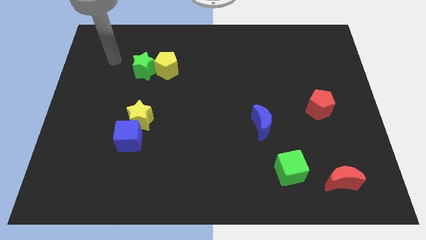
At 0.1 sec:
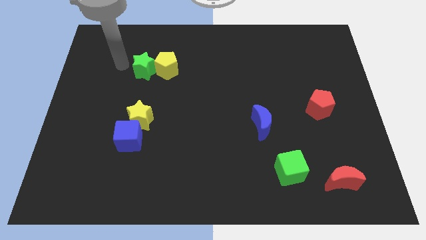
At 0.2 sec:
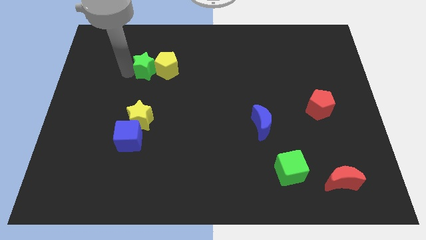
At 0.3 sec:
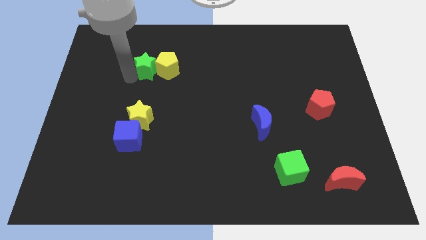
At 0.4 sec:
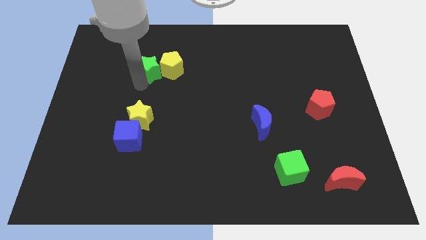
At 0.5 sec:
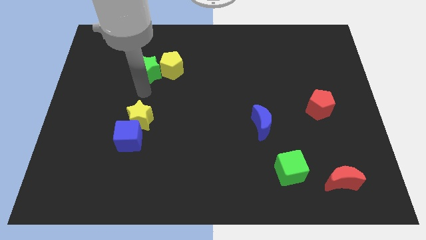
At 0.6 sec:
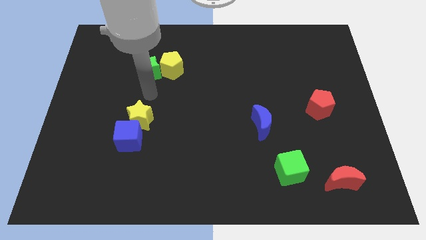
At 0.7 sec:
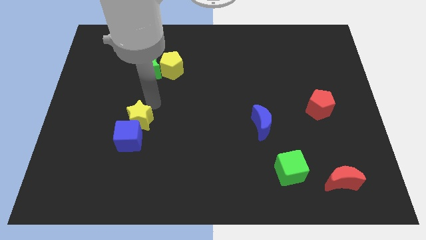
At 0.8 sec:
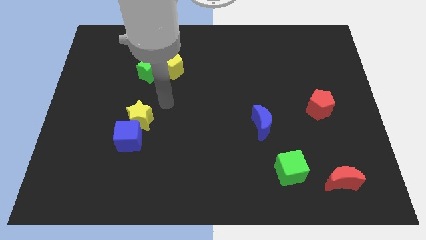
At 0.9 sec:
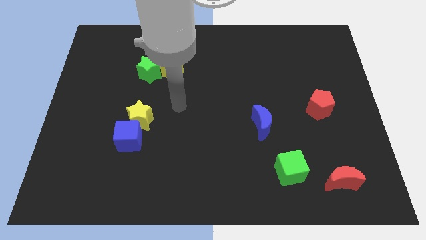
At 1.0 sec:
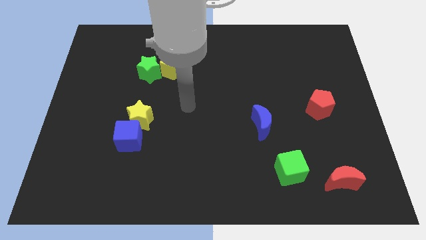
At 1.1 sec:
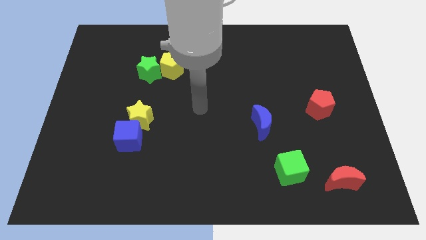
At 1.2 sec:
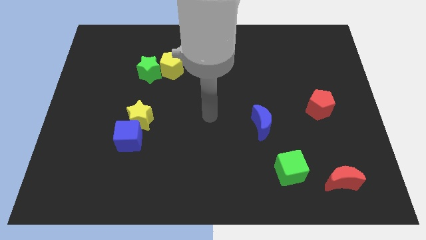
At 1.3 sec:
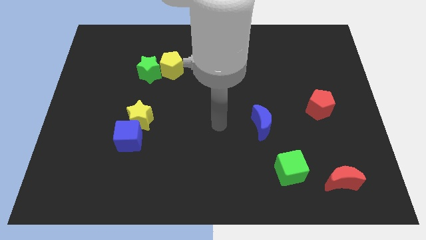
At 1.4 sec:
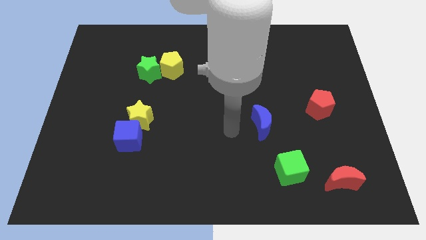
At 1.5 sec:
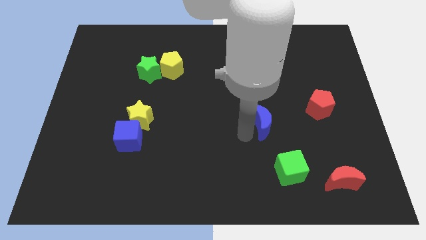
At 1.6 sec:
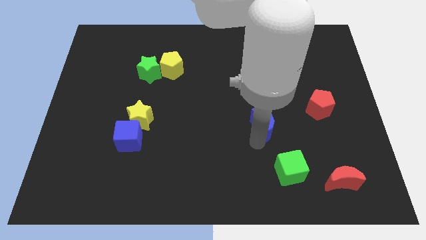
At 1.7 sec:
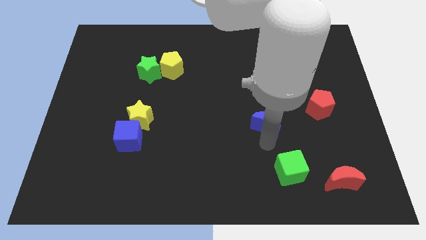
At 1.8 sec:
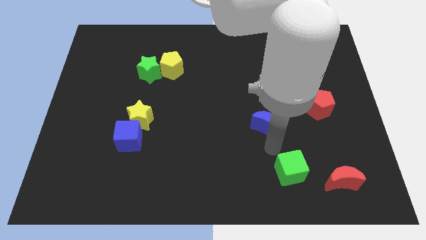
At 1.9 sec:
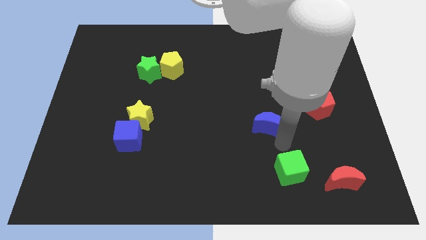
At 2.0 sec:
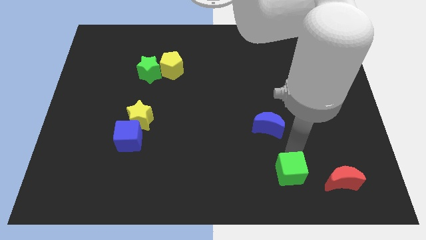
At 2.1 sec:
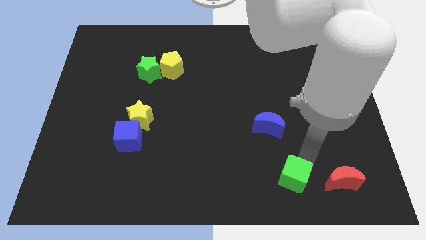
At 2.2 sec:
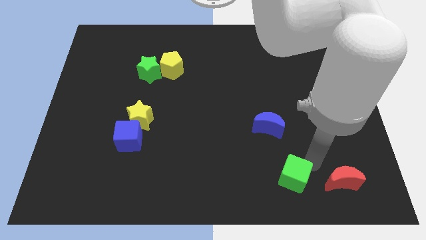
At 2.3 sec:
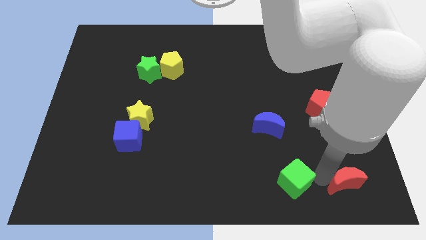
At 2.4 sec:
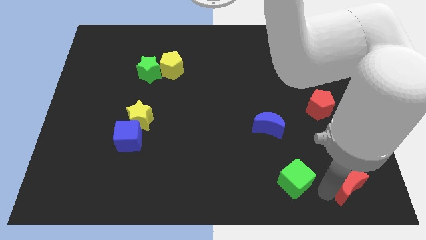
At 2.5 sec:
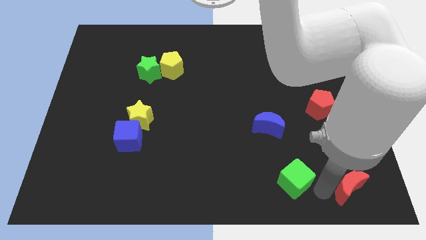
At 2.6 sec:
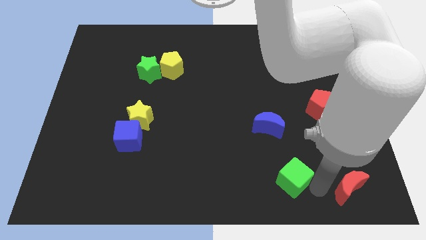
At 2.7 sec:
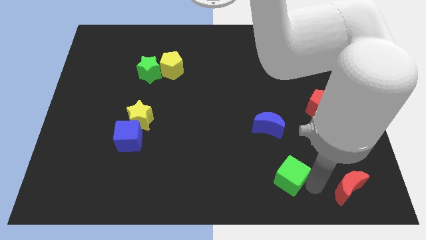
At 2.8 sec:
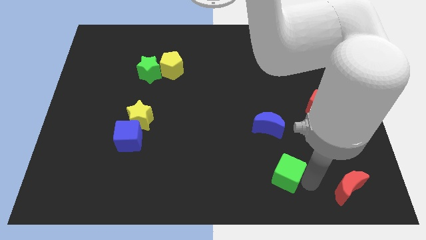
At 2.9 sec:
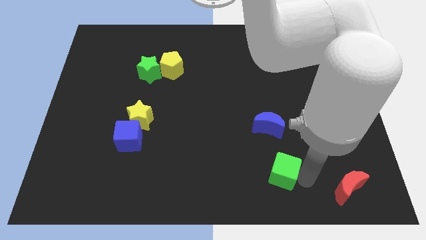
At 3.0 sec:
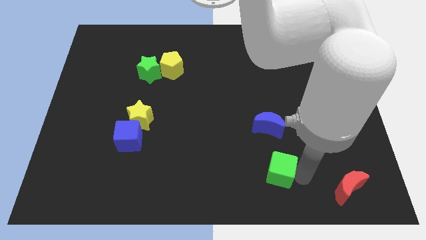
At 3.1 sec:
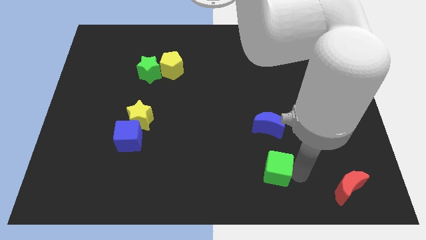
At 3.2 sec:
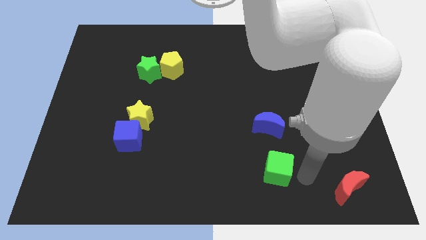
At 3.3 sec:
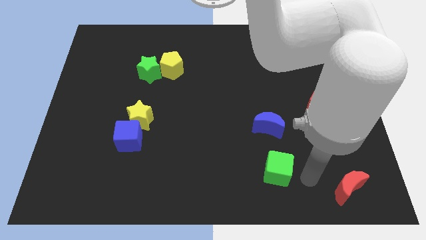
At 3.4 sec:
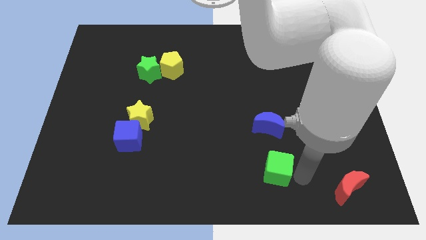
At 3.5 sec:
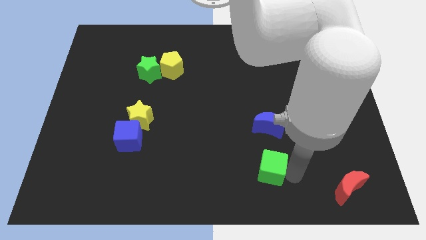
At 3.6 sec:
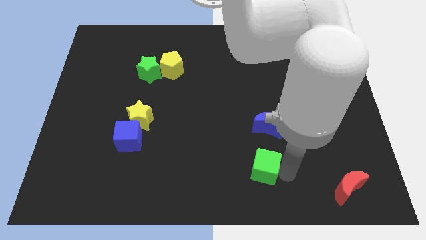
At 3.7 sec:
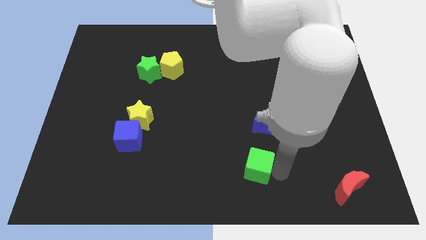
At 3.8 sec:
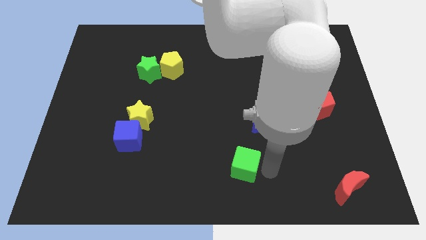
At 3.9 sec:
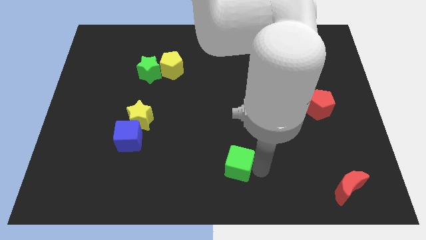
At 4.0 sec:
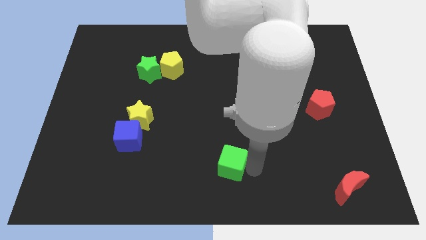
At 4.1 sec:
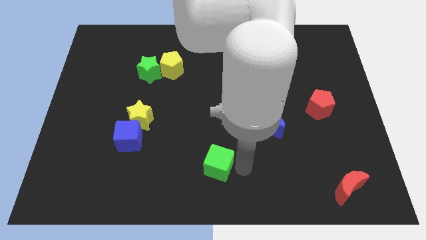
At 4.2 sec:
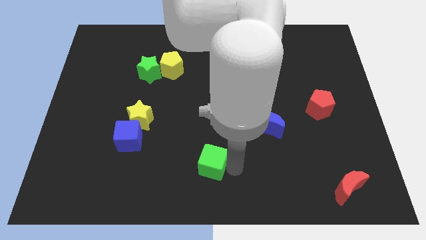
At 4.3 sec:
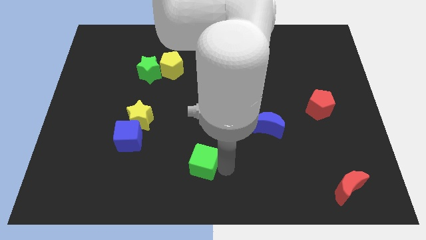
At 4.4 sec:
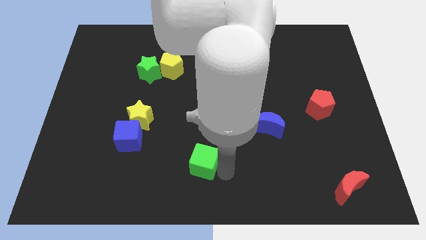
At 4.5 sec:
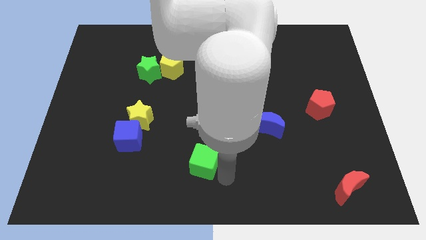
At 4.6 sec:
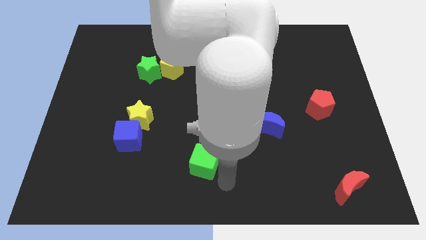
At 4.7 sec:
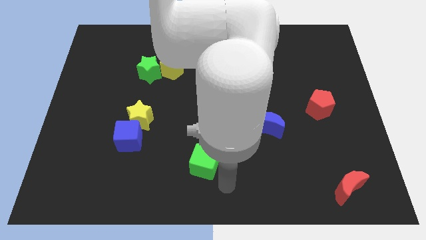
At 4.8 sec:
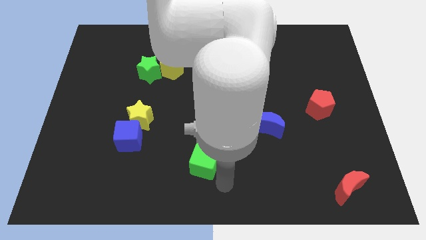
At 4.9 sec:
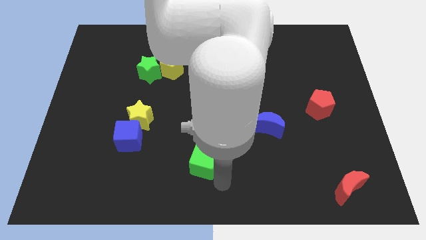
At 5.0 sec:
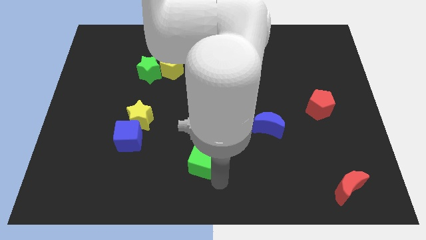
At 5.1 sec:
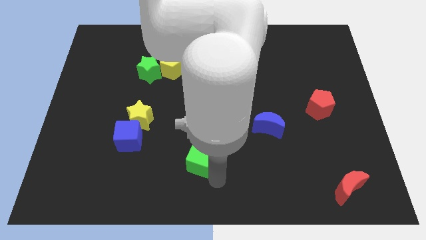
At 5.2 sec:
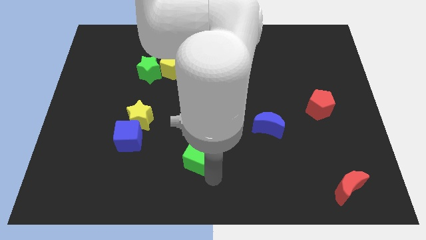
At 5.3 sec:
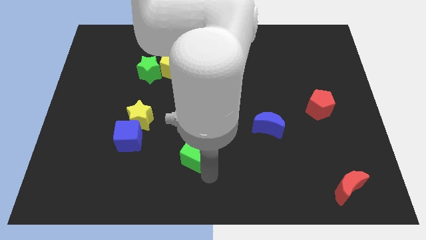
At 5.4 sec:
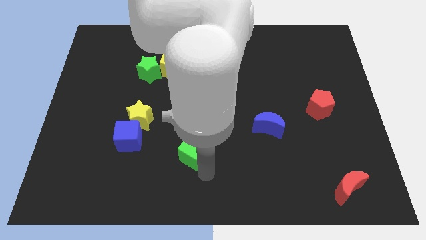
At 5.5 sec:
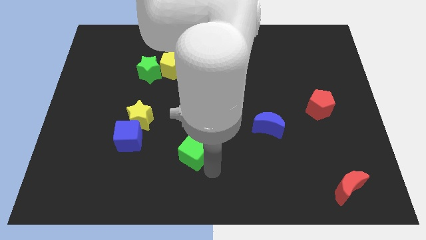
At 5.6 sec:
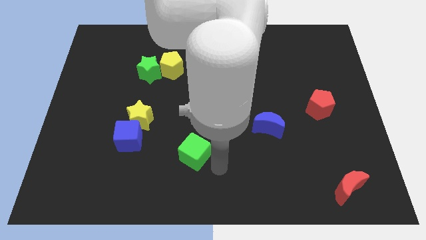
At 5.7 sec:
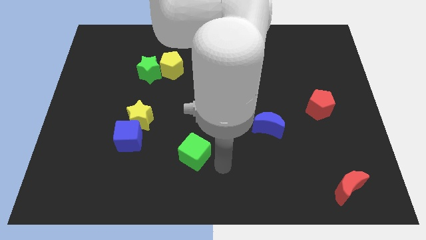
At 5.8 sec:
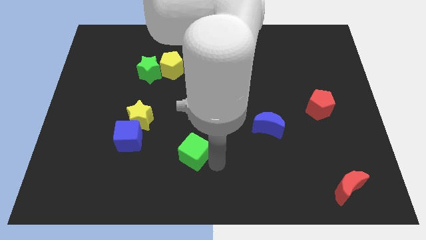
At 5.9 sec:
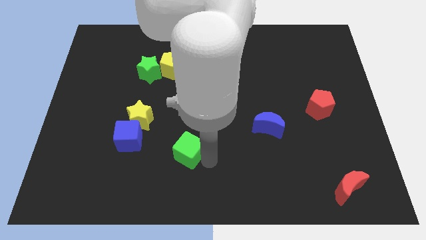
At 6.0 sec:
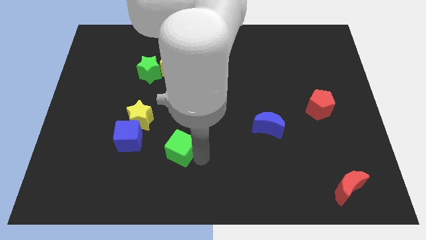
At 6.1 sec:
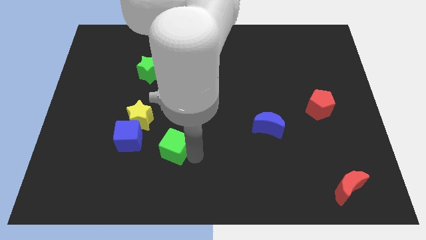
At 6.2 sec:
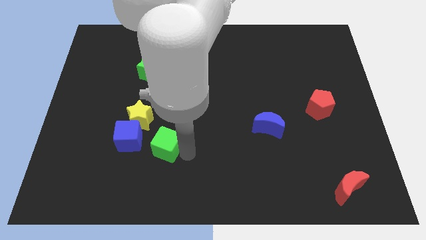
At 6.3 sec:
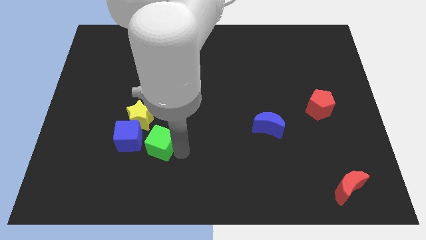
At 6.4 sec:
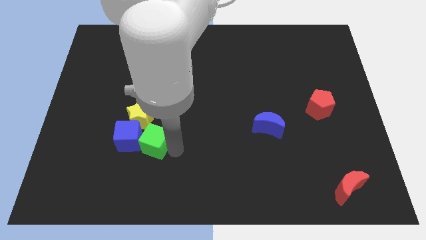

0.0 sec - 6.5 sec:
slide the green cube next to the blue cube

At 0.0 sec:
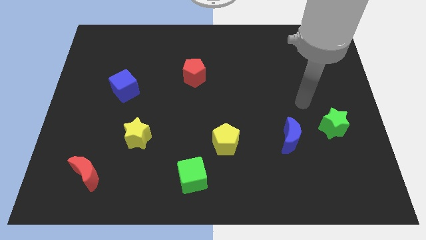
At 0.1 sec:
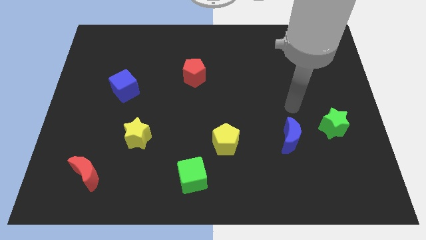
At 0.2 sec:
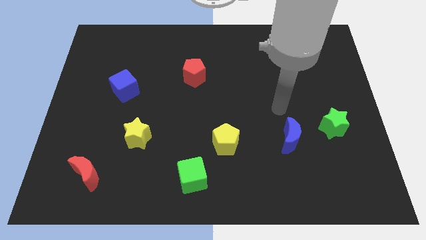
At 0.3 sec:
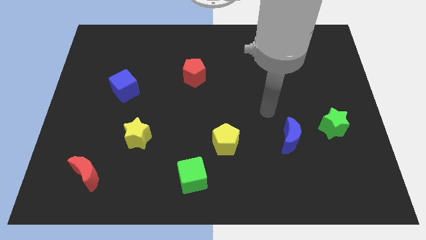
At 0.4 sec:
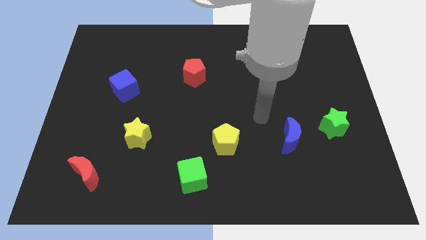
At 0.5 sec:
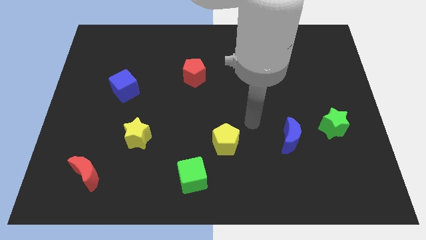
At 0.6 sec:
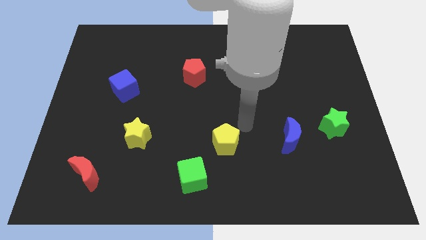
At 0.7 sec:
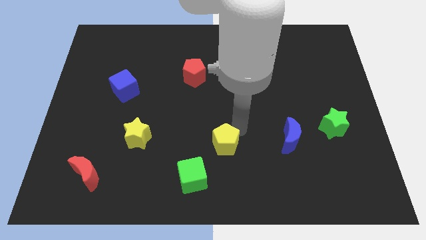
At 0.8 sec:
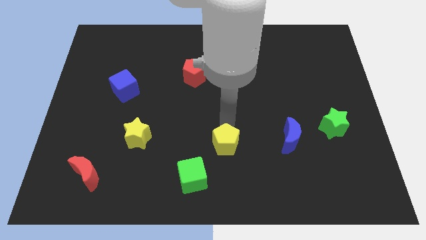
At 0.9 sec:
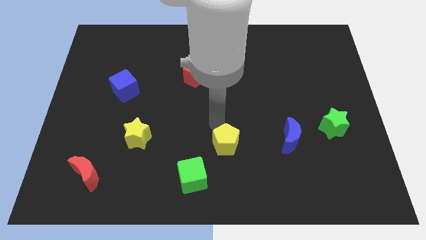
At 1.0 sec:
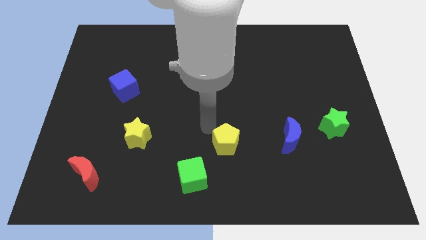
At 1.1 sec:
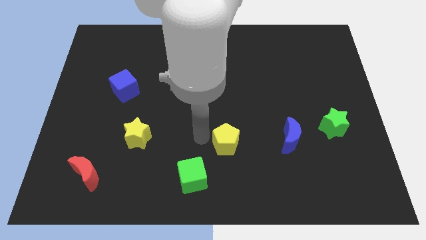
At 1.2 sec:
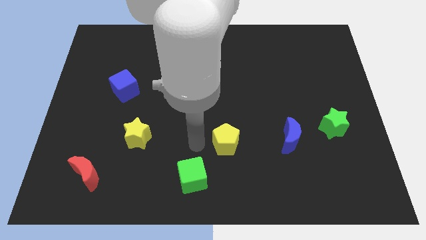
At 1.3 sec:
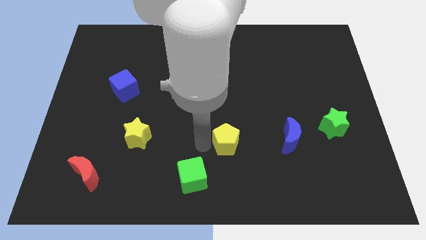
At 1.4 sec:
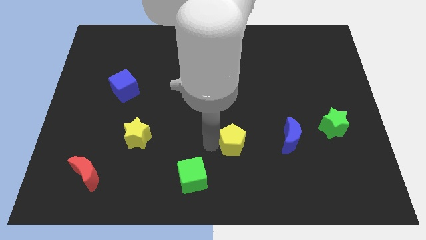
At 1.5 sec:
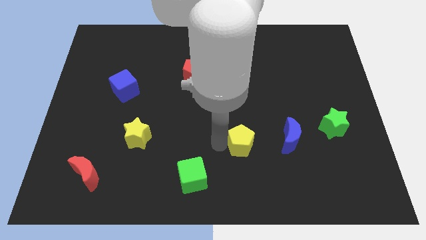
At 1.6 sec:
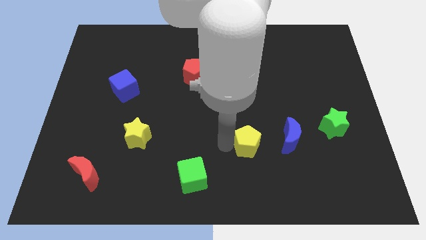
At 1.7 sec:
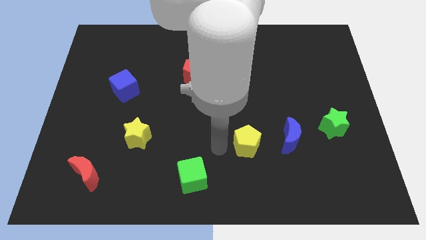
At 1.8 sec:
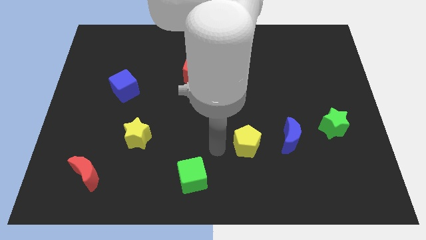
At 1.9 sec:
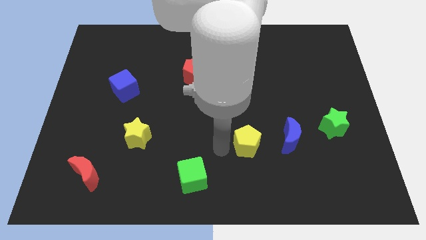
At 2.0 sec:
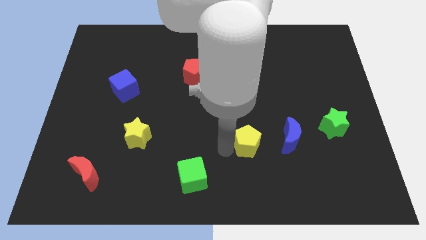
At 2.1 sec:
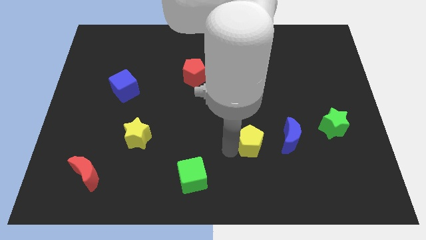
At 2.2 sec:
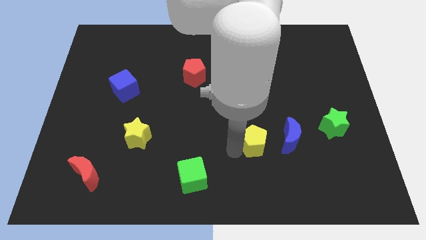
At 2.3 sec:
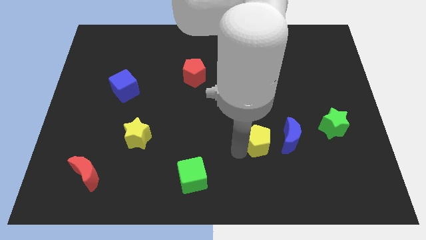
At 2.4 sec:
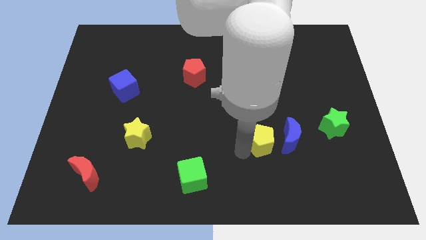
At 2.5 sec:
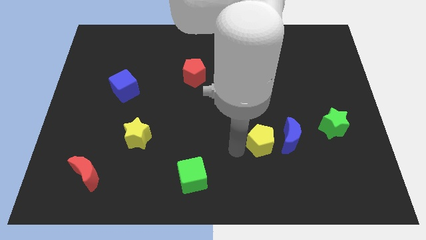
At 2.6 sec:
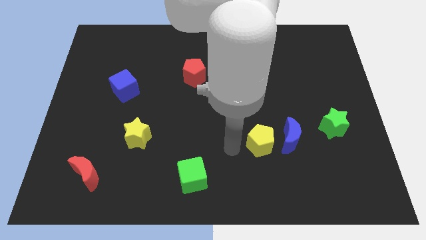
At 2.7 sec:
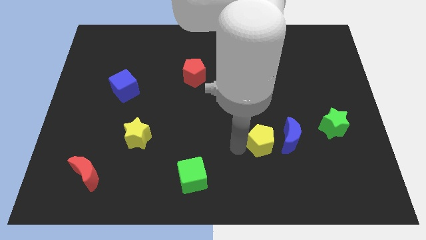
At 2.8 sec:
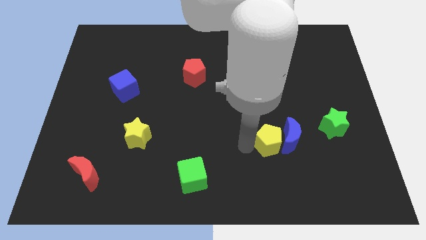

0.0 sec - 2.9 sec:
move the yellow pentagon next to the blue moon
